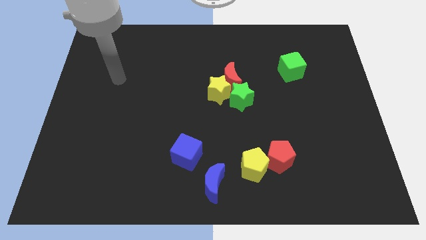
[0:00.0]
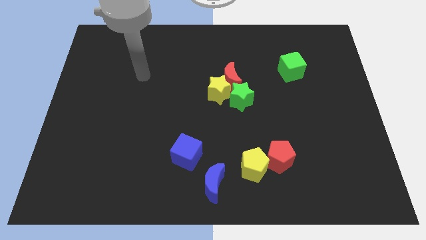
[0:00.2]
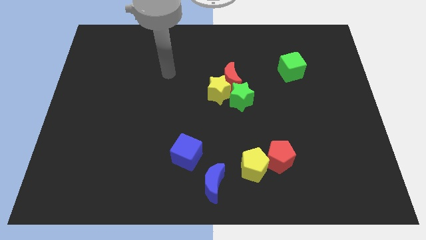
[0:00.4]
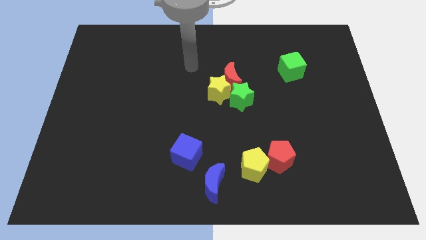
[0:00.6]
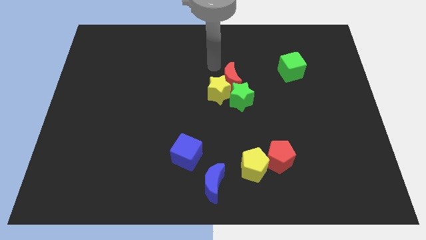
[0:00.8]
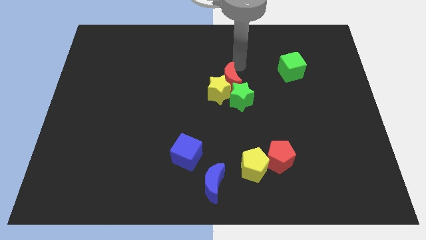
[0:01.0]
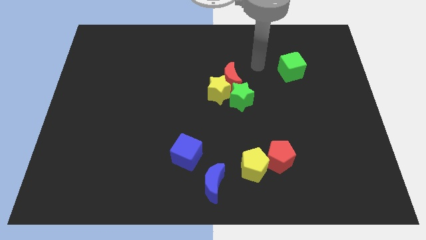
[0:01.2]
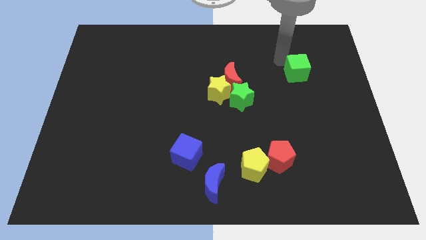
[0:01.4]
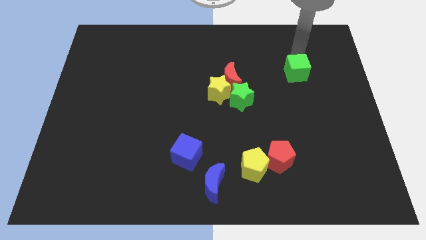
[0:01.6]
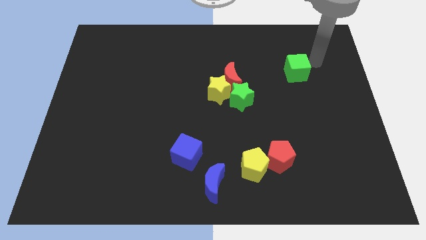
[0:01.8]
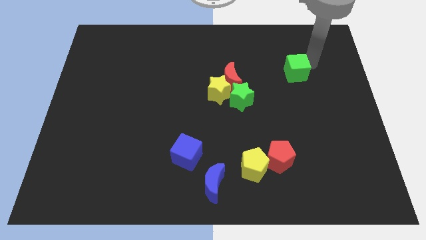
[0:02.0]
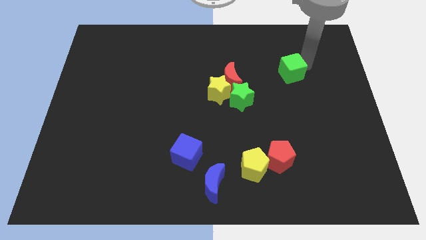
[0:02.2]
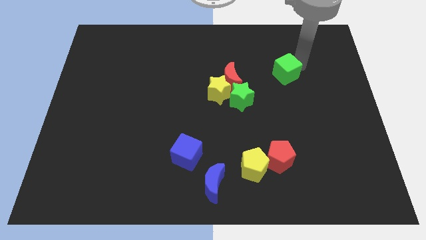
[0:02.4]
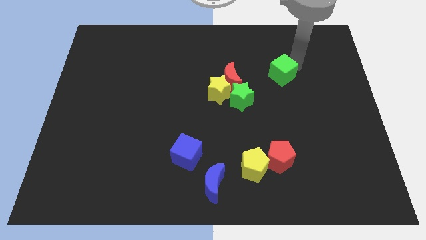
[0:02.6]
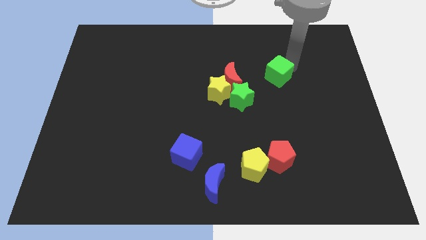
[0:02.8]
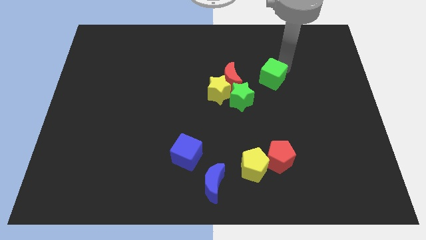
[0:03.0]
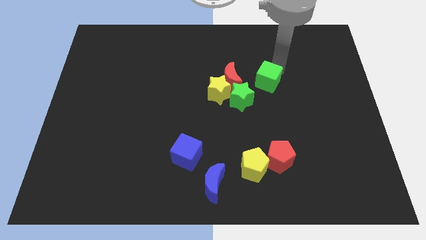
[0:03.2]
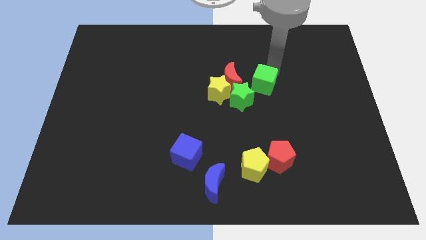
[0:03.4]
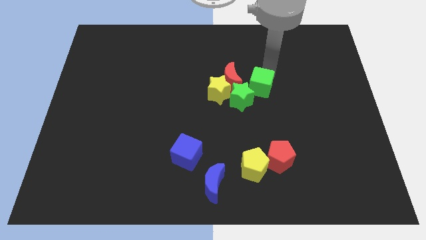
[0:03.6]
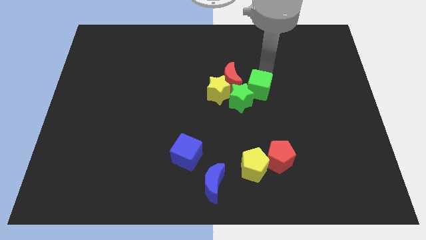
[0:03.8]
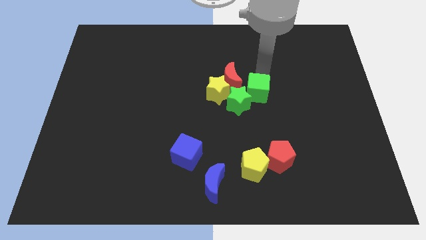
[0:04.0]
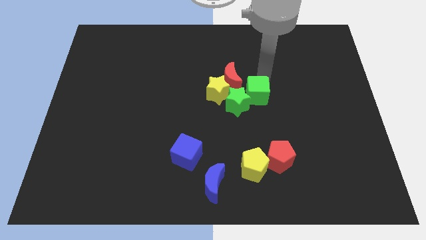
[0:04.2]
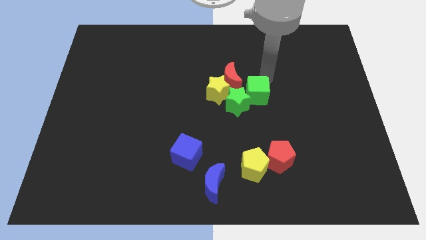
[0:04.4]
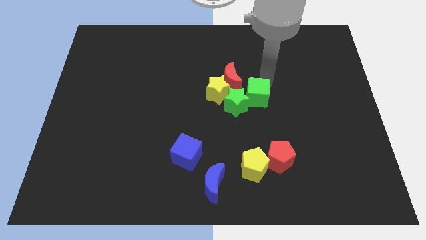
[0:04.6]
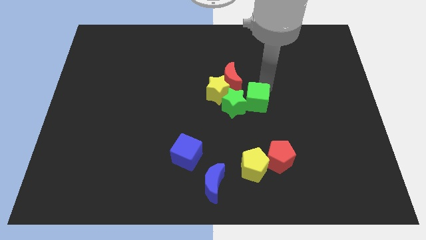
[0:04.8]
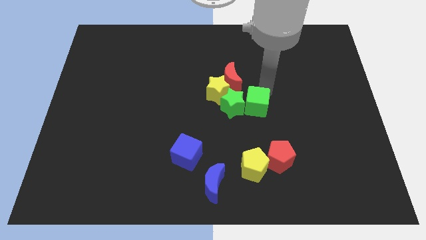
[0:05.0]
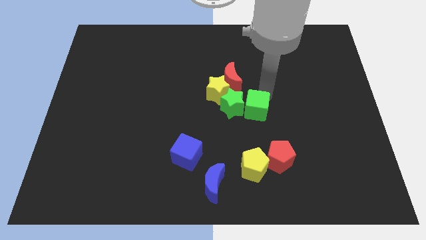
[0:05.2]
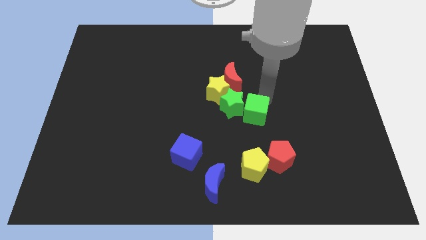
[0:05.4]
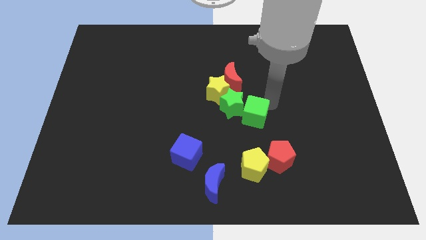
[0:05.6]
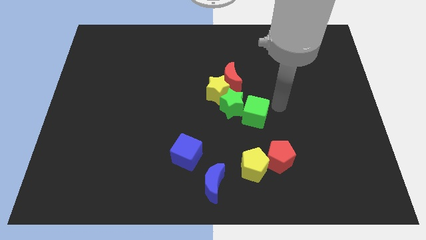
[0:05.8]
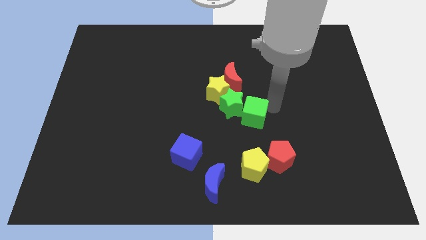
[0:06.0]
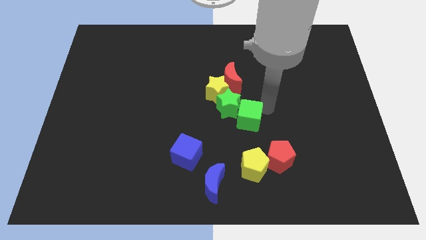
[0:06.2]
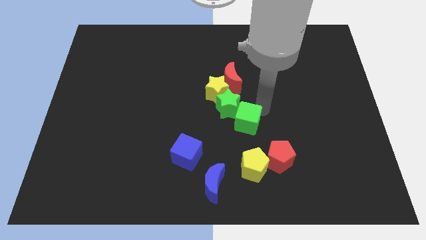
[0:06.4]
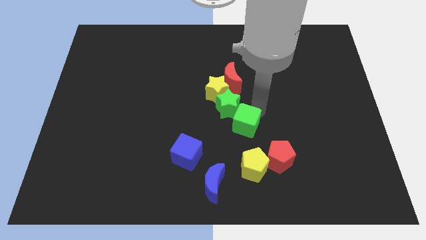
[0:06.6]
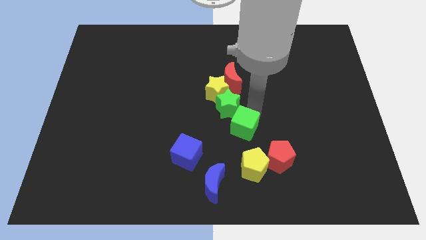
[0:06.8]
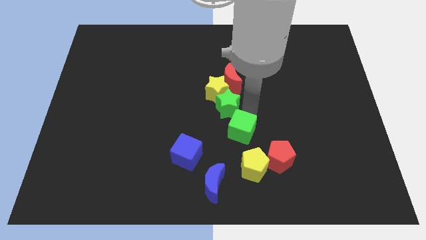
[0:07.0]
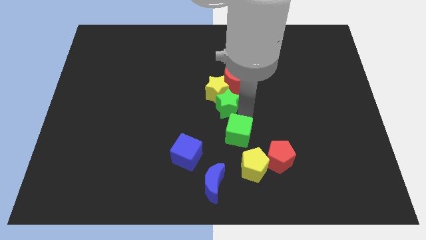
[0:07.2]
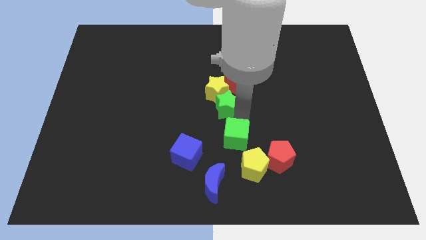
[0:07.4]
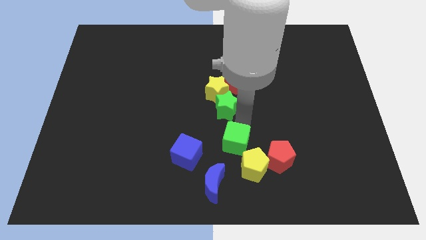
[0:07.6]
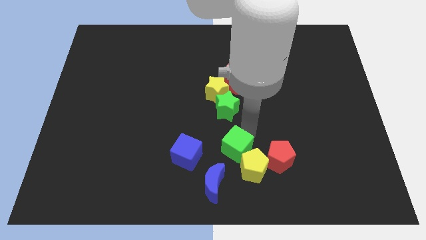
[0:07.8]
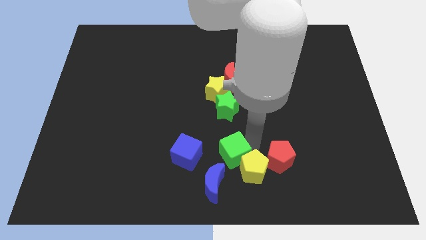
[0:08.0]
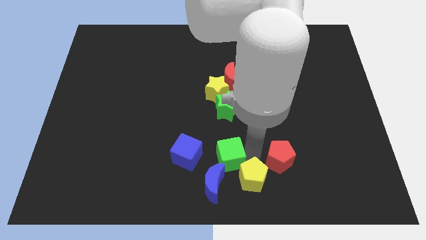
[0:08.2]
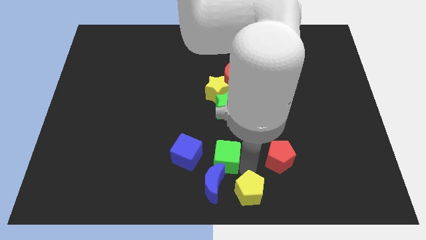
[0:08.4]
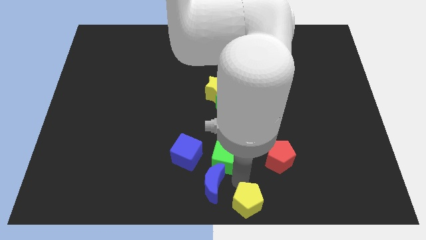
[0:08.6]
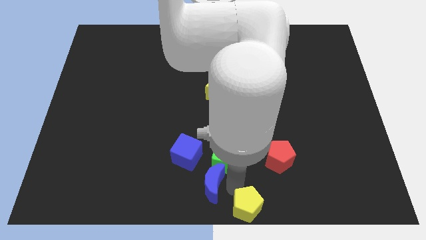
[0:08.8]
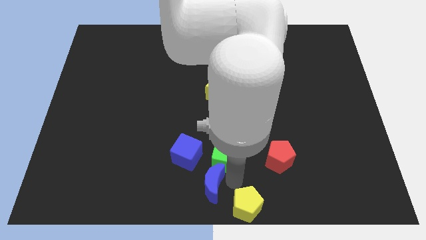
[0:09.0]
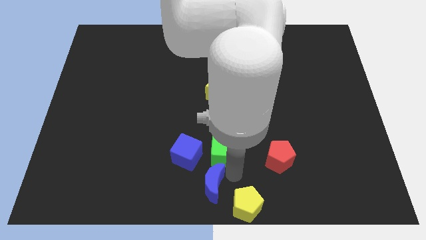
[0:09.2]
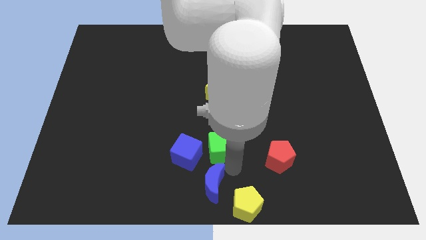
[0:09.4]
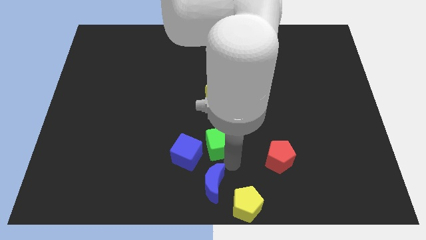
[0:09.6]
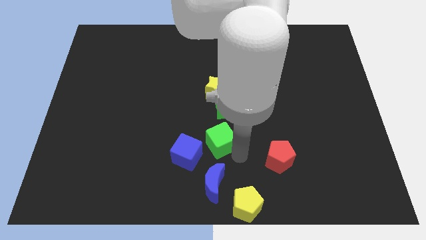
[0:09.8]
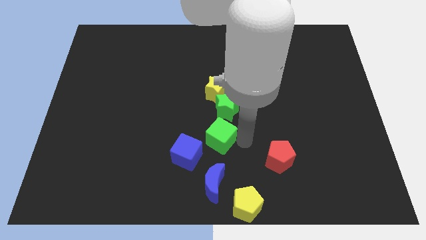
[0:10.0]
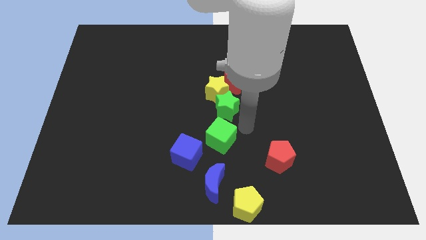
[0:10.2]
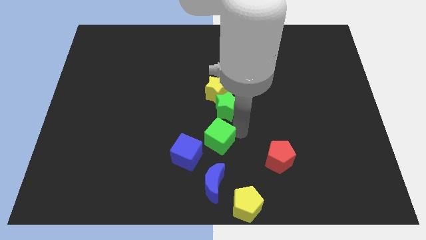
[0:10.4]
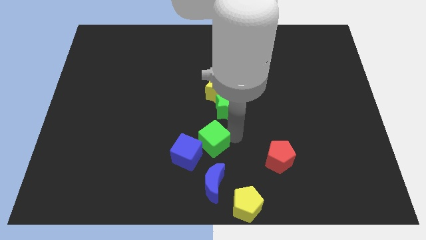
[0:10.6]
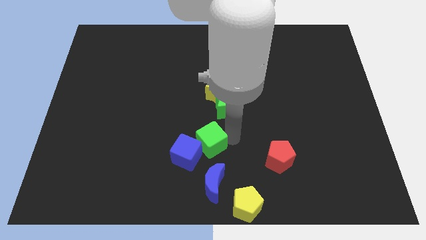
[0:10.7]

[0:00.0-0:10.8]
push the green cube to the blue cube

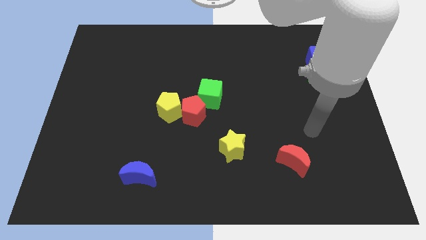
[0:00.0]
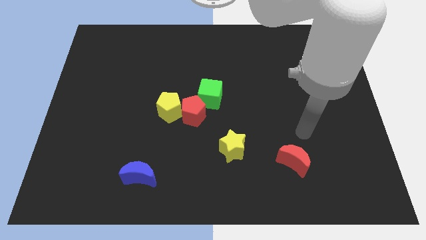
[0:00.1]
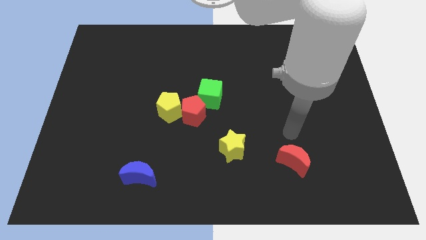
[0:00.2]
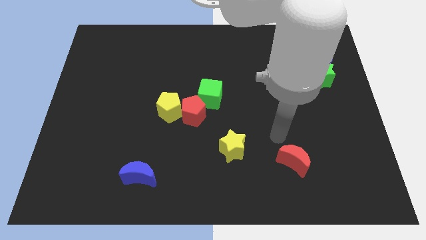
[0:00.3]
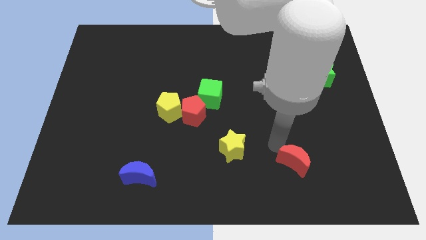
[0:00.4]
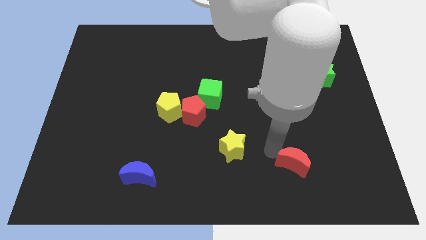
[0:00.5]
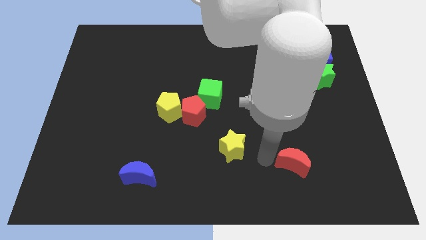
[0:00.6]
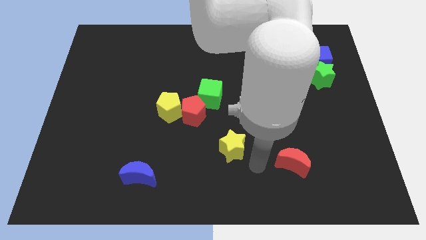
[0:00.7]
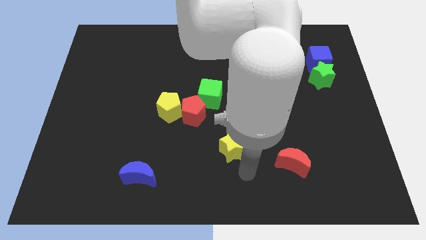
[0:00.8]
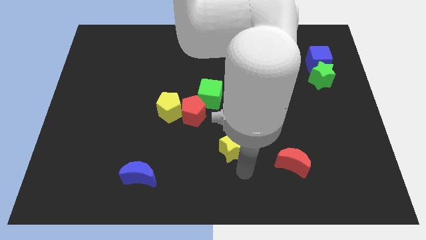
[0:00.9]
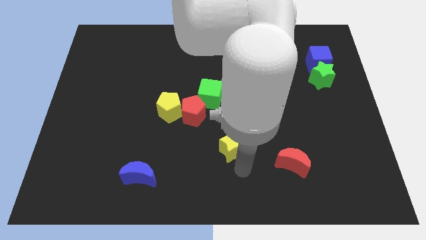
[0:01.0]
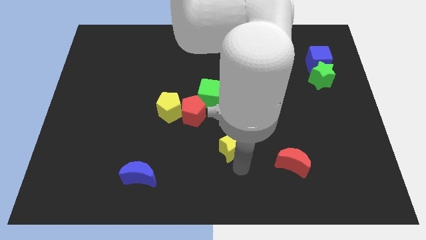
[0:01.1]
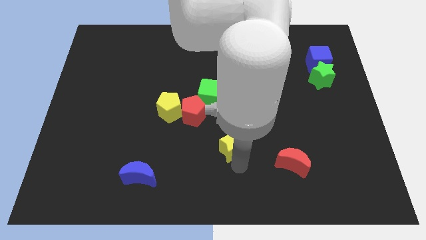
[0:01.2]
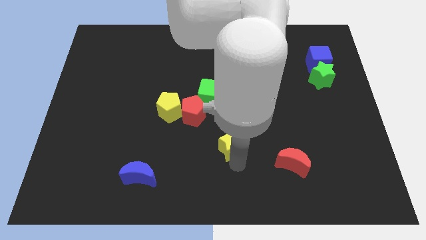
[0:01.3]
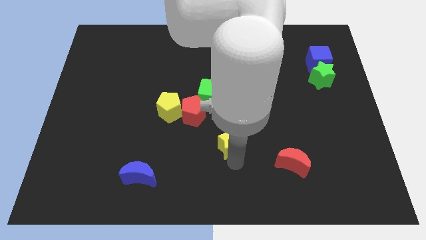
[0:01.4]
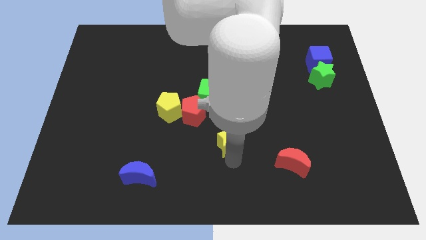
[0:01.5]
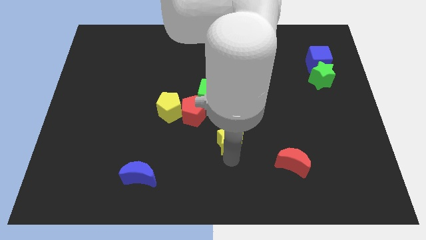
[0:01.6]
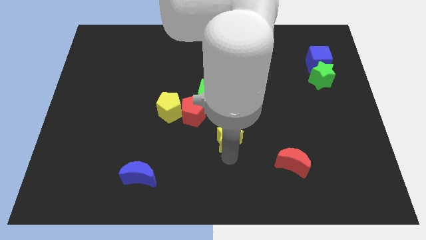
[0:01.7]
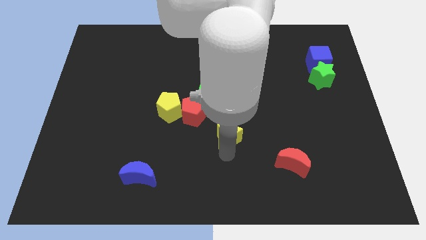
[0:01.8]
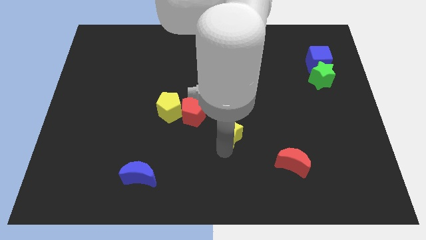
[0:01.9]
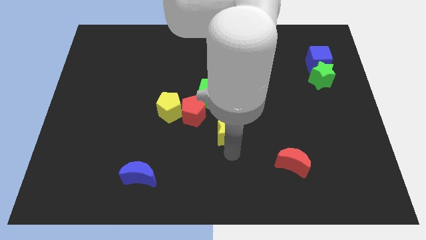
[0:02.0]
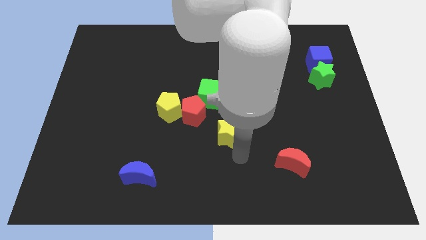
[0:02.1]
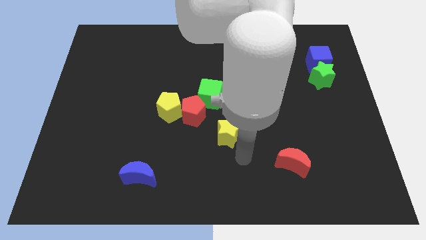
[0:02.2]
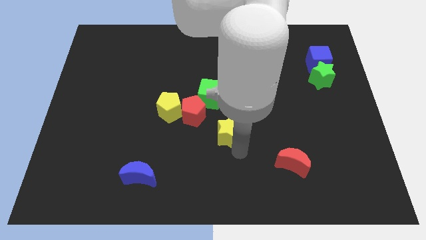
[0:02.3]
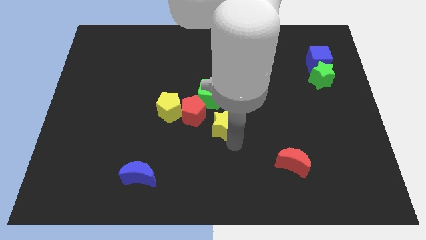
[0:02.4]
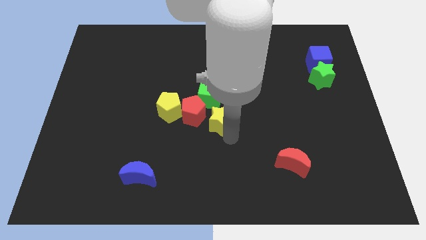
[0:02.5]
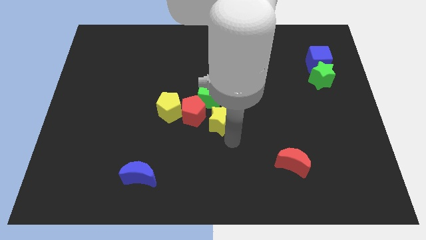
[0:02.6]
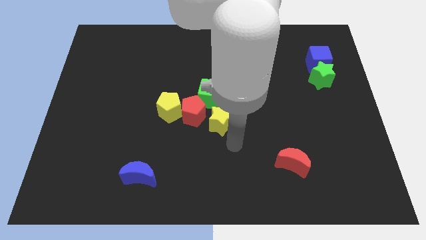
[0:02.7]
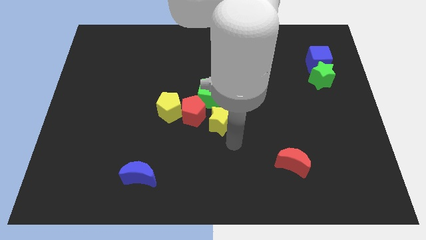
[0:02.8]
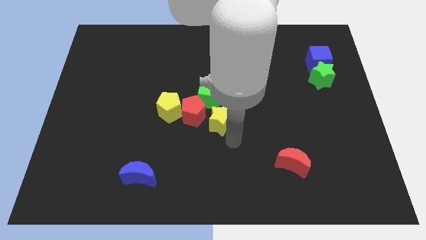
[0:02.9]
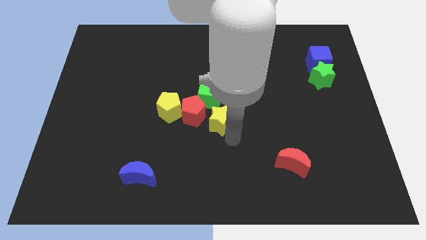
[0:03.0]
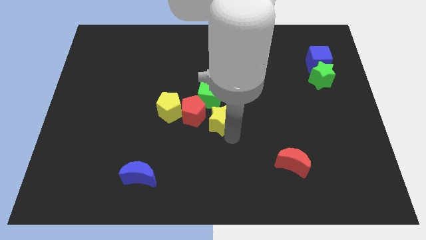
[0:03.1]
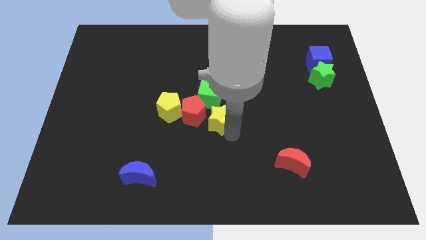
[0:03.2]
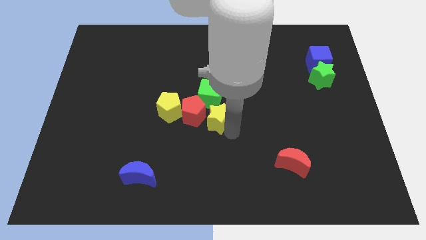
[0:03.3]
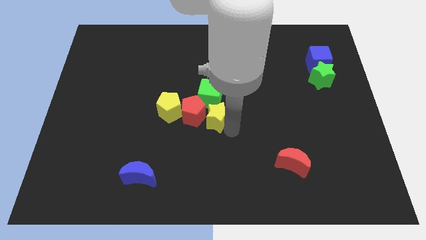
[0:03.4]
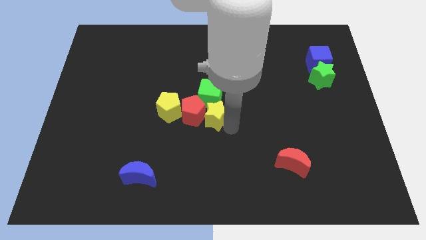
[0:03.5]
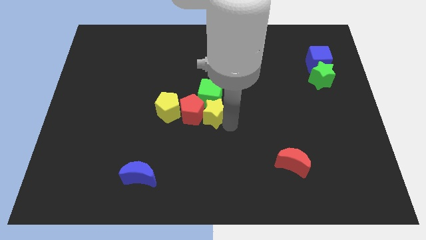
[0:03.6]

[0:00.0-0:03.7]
push the yellow star next to the green cube
